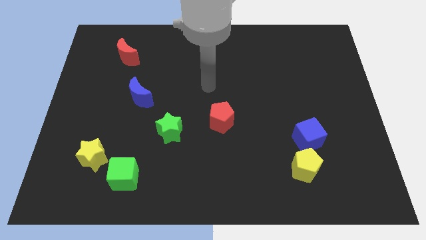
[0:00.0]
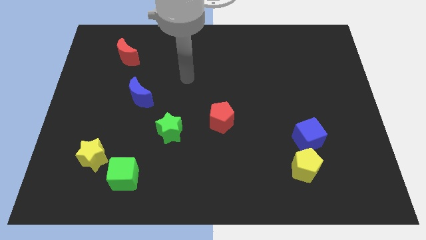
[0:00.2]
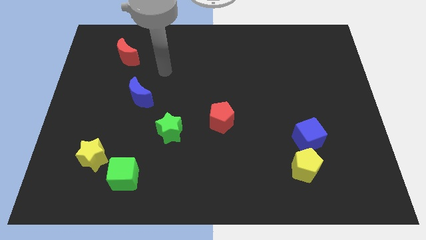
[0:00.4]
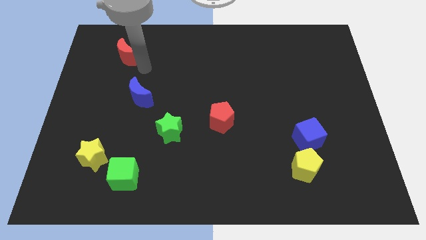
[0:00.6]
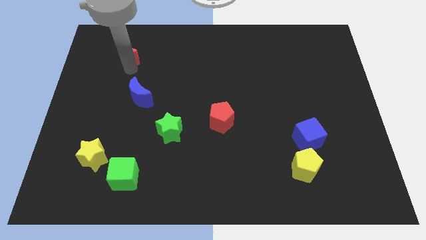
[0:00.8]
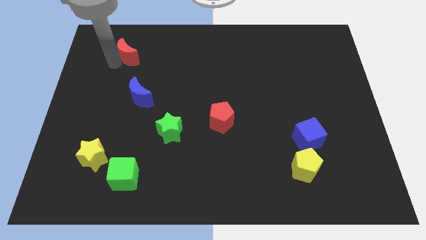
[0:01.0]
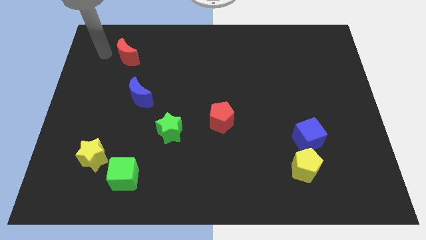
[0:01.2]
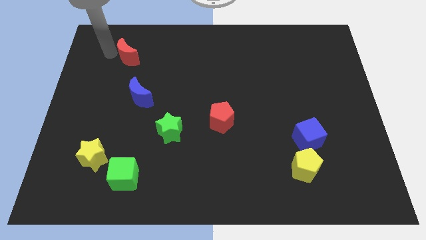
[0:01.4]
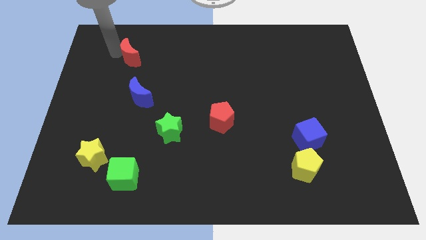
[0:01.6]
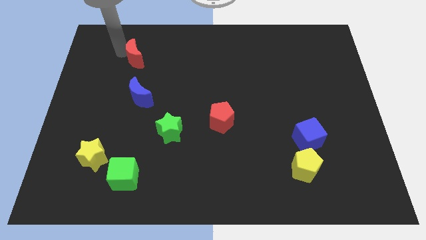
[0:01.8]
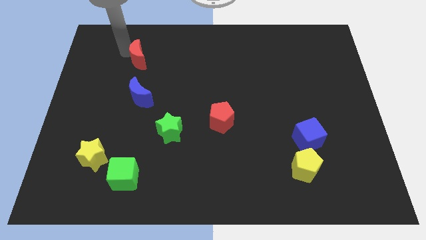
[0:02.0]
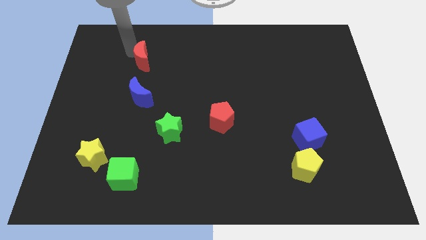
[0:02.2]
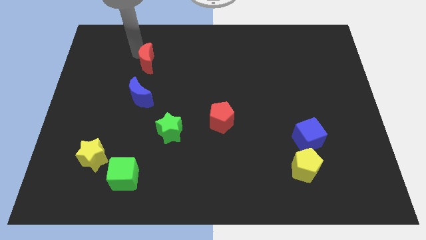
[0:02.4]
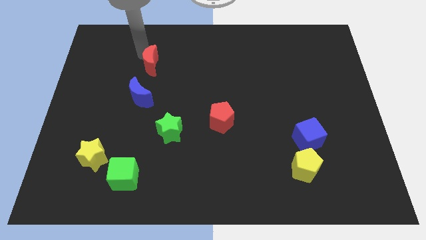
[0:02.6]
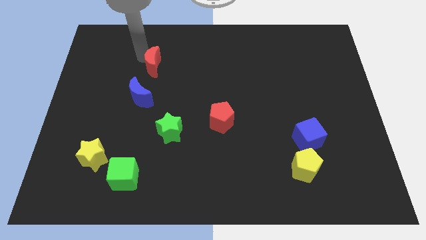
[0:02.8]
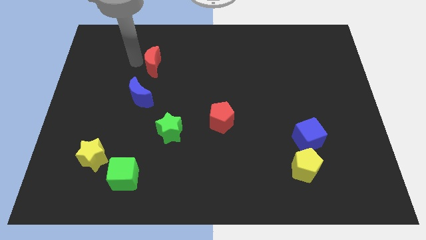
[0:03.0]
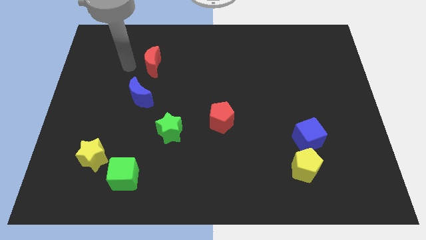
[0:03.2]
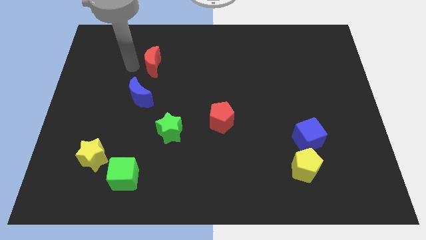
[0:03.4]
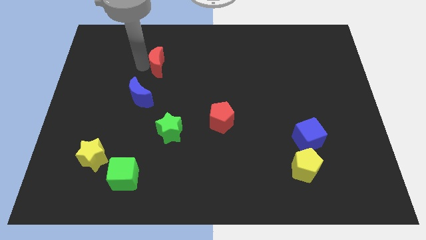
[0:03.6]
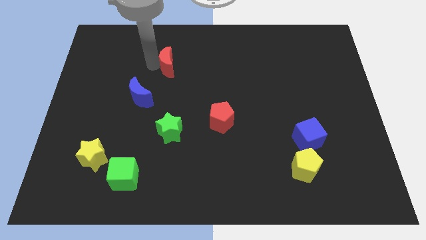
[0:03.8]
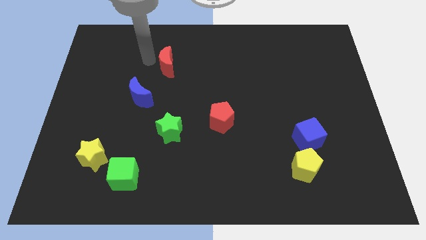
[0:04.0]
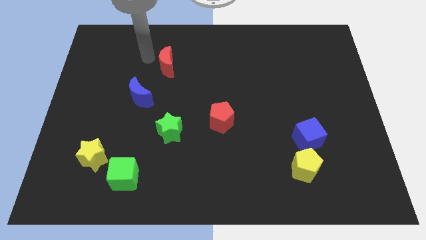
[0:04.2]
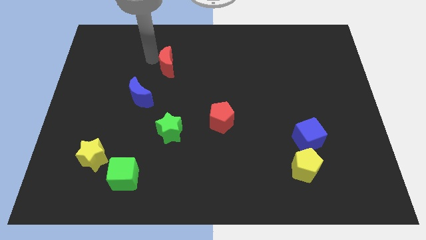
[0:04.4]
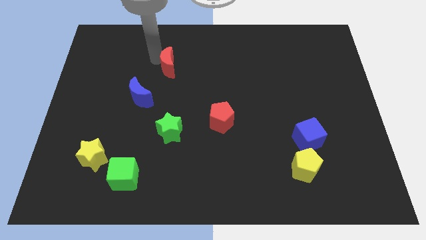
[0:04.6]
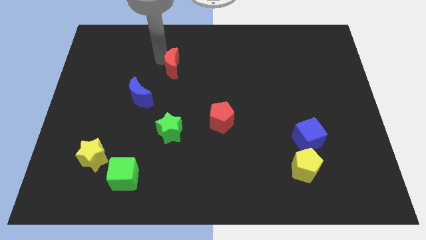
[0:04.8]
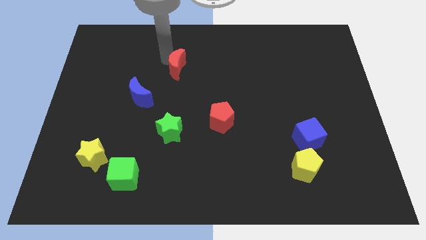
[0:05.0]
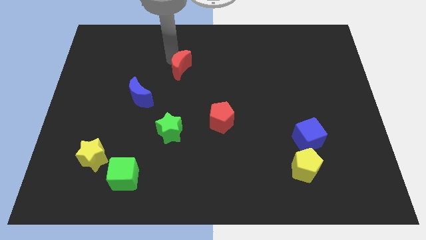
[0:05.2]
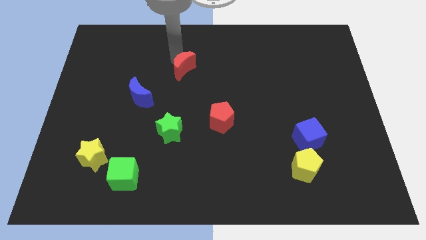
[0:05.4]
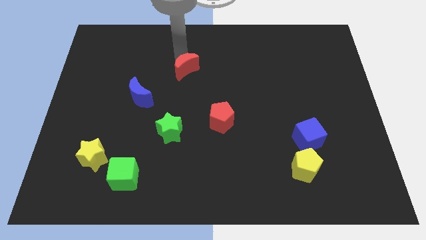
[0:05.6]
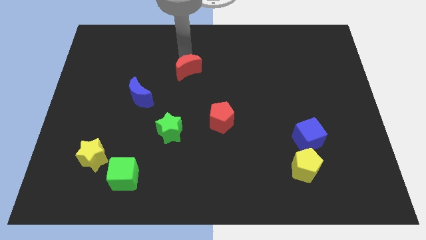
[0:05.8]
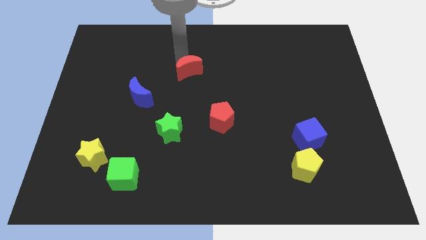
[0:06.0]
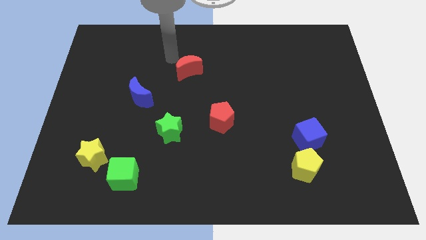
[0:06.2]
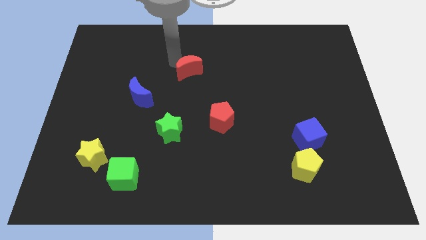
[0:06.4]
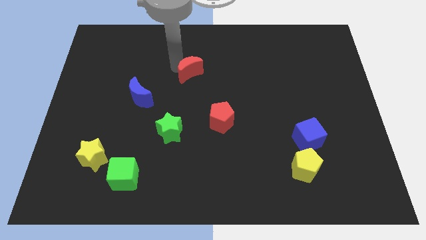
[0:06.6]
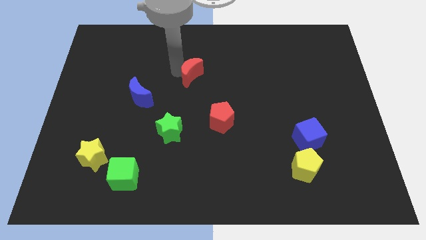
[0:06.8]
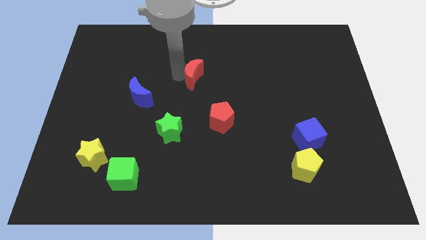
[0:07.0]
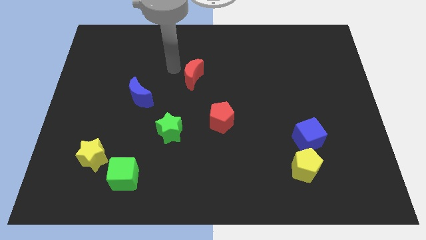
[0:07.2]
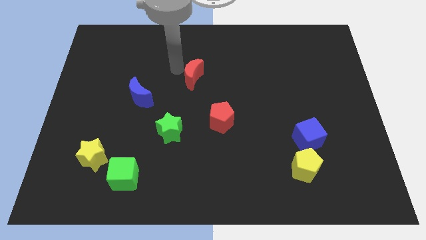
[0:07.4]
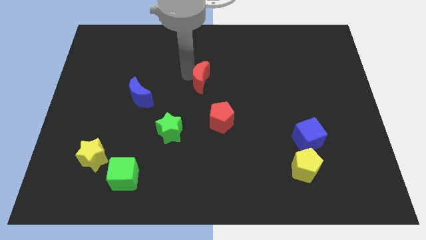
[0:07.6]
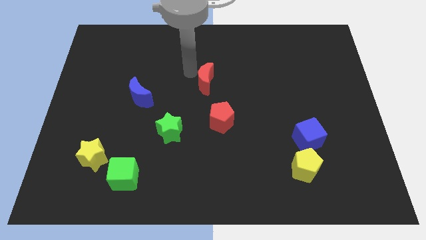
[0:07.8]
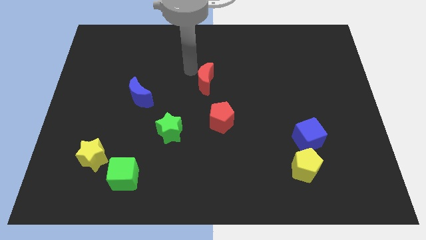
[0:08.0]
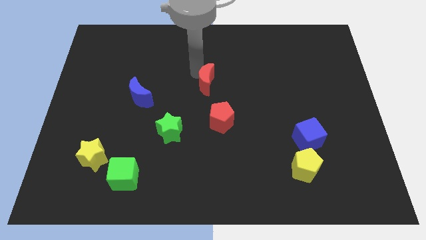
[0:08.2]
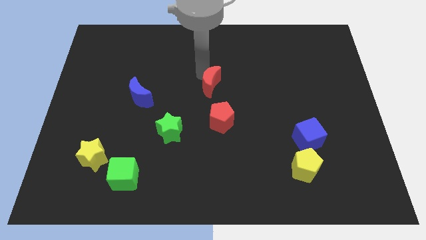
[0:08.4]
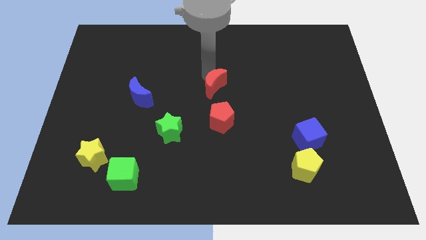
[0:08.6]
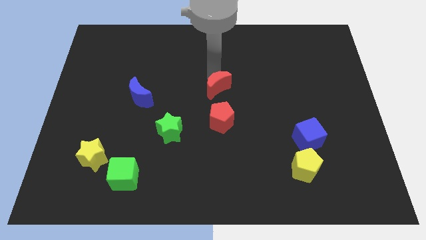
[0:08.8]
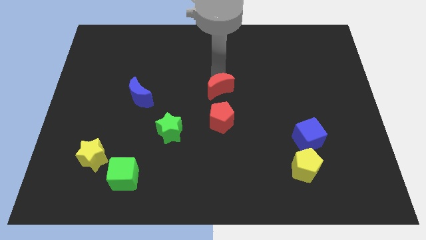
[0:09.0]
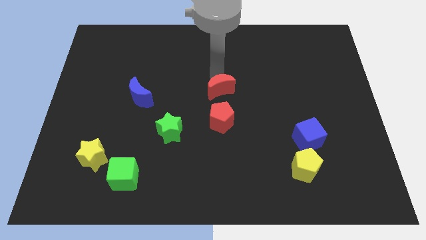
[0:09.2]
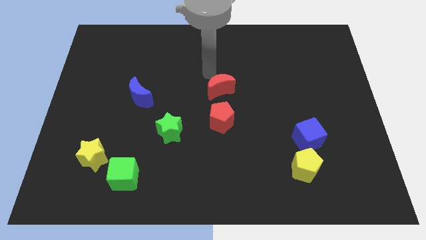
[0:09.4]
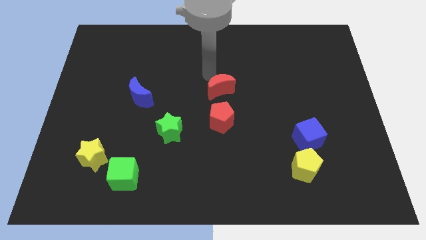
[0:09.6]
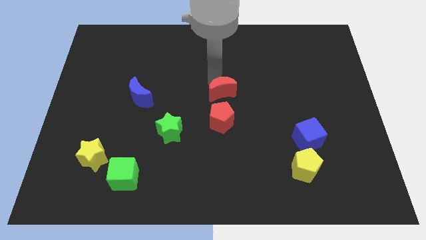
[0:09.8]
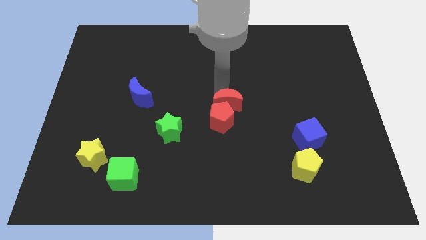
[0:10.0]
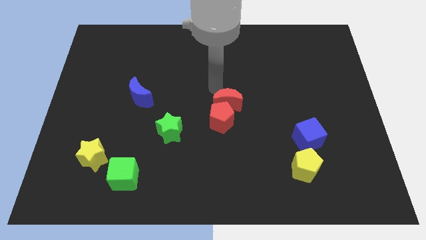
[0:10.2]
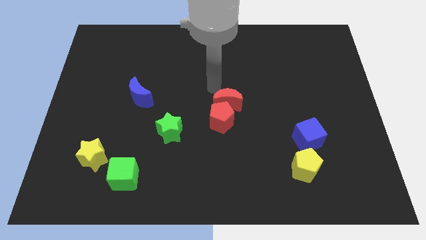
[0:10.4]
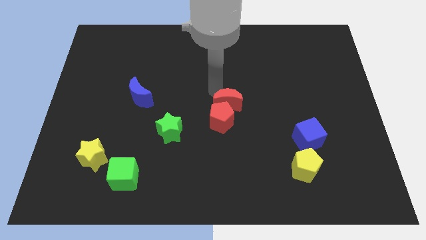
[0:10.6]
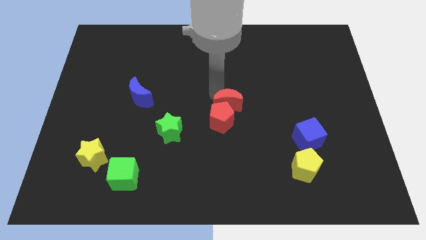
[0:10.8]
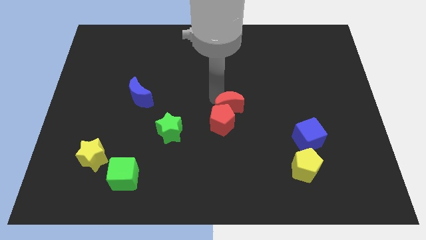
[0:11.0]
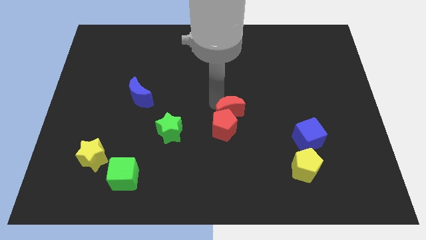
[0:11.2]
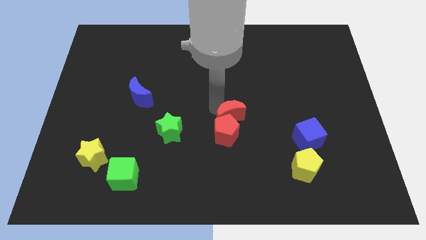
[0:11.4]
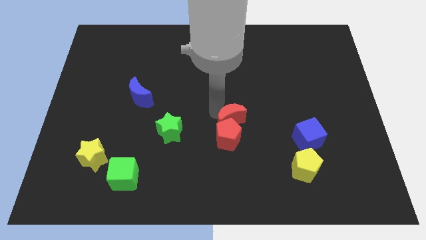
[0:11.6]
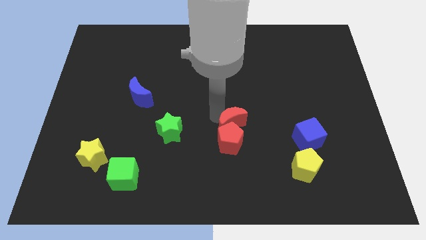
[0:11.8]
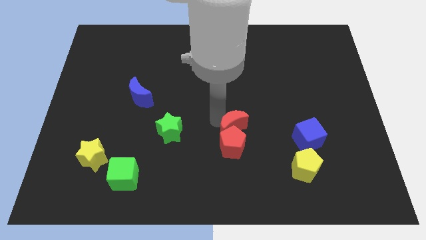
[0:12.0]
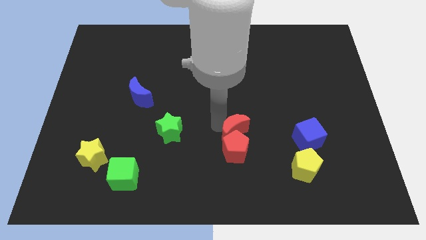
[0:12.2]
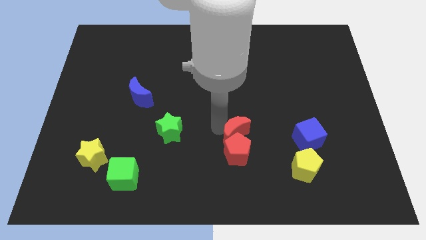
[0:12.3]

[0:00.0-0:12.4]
put the red moon left of the blue cube

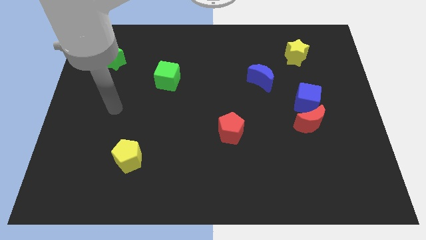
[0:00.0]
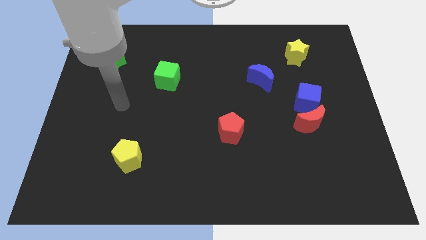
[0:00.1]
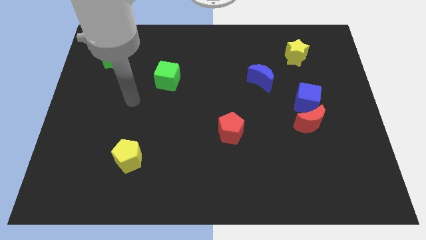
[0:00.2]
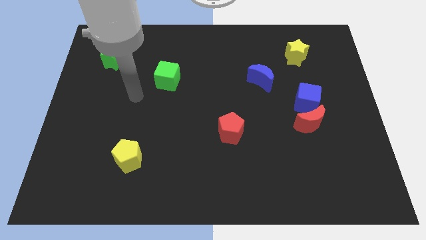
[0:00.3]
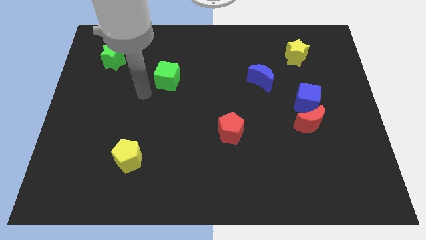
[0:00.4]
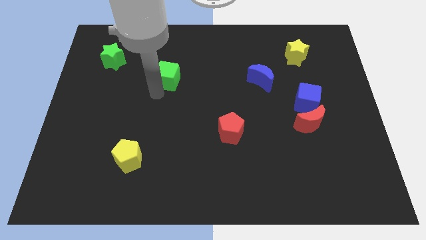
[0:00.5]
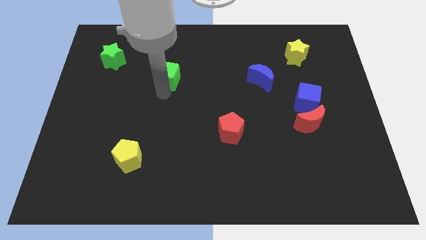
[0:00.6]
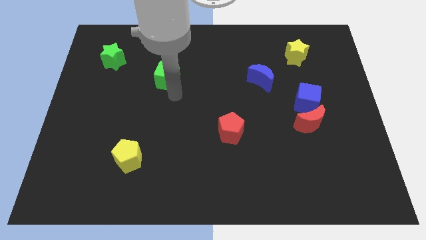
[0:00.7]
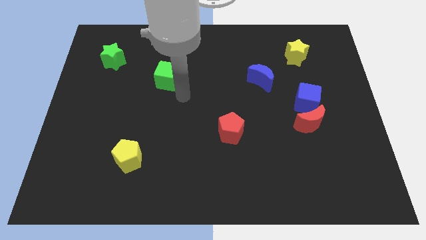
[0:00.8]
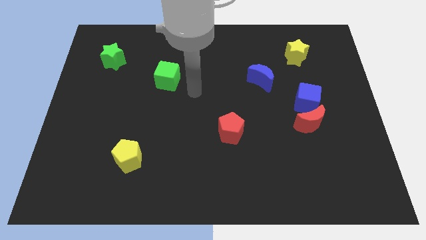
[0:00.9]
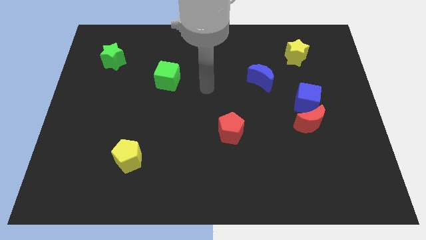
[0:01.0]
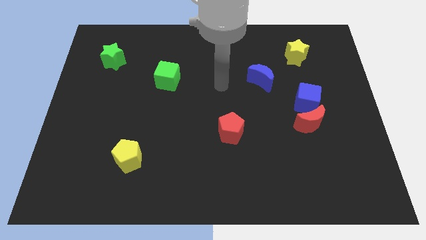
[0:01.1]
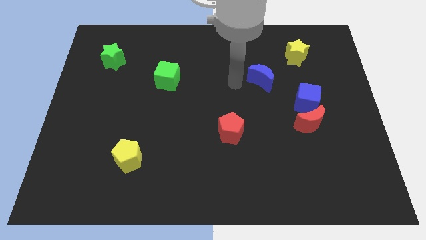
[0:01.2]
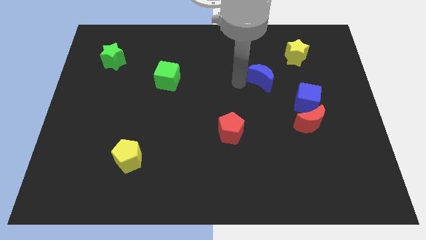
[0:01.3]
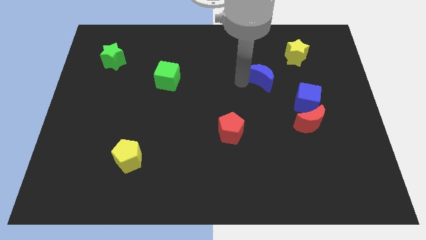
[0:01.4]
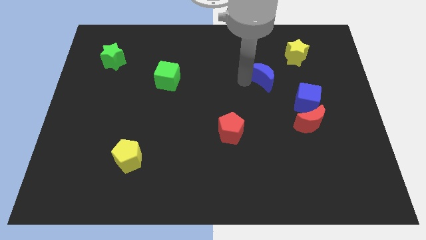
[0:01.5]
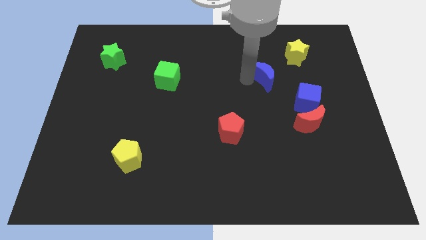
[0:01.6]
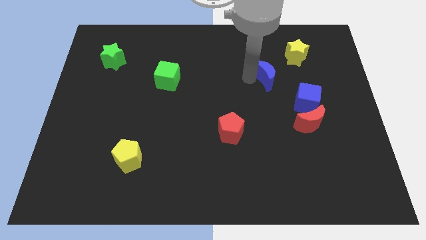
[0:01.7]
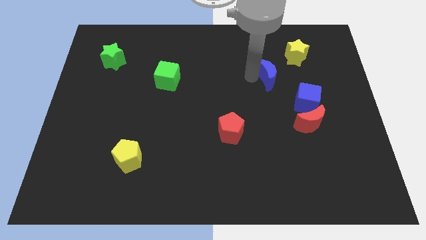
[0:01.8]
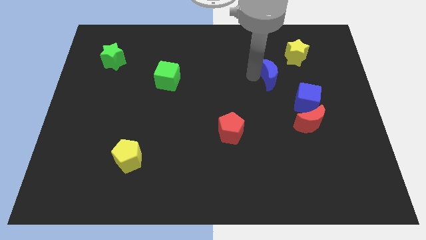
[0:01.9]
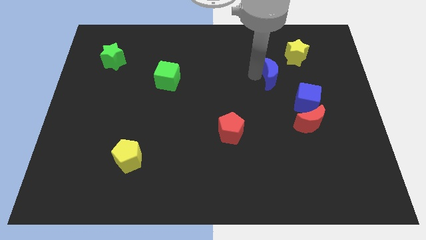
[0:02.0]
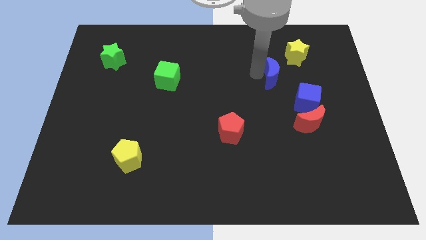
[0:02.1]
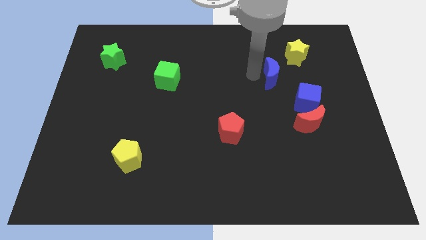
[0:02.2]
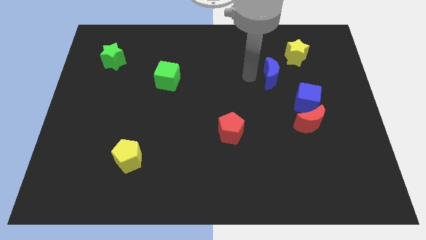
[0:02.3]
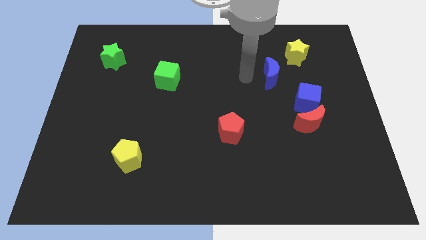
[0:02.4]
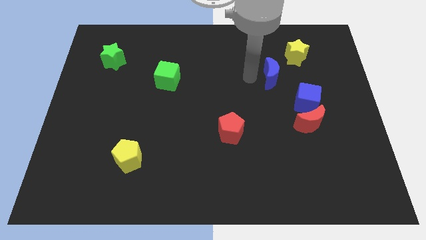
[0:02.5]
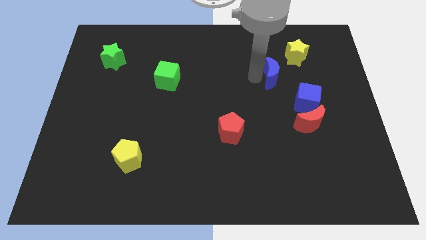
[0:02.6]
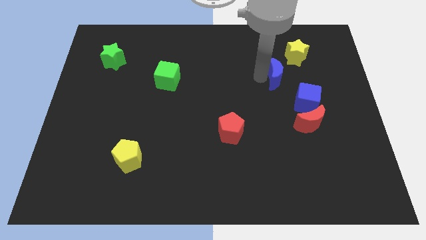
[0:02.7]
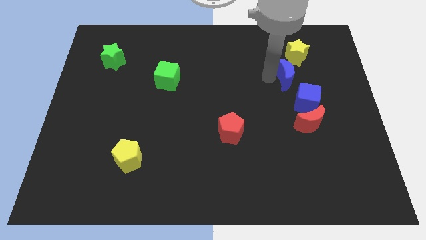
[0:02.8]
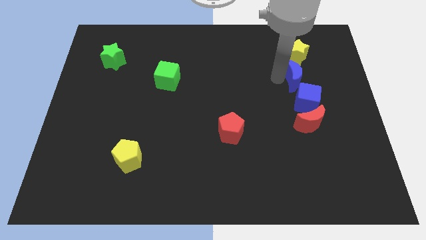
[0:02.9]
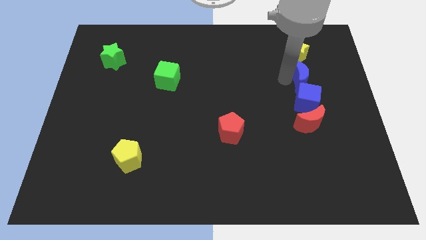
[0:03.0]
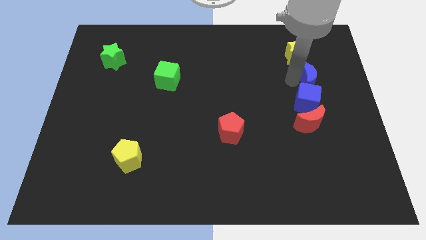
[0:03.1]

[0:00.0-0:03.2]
move the blue moon to the bottom right side of the yellow star
